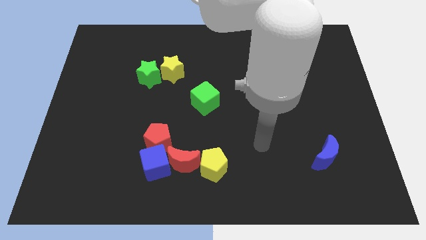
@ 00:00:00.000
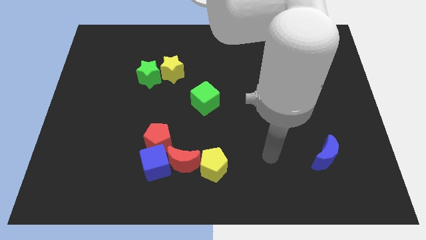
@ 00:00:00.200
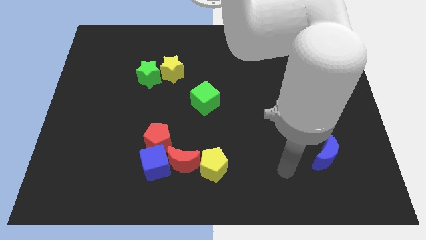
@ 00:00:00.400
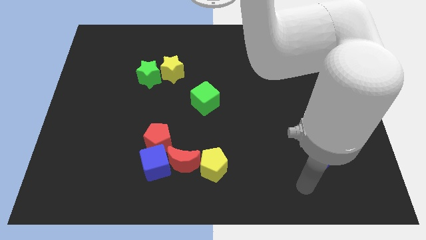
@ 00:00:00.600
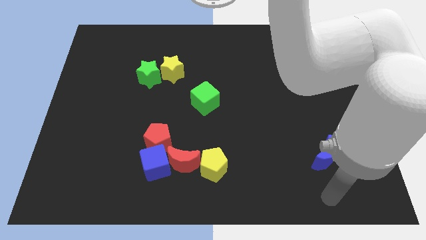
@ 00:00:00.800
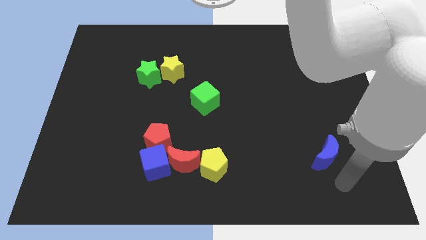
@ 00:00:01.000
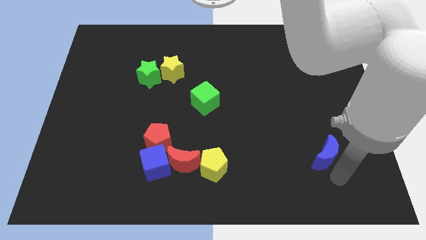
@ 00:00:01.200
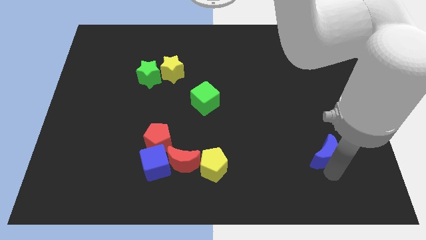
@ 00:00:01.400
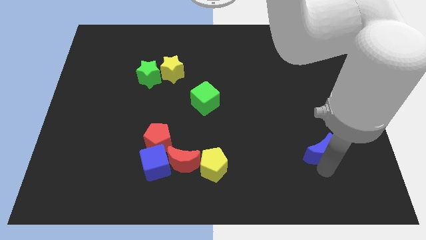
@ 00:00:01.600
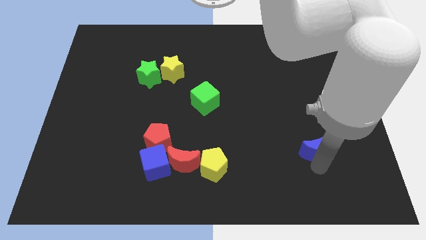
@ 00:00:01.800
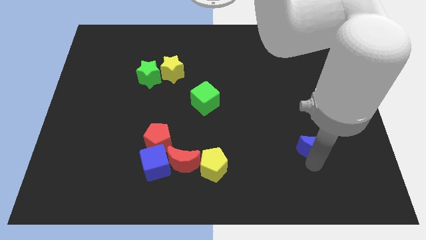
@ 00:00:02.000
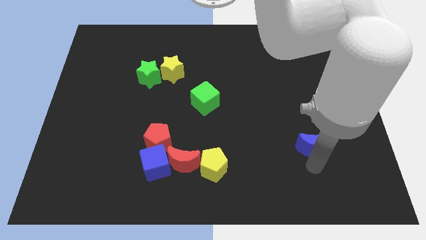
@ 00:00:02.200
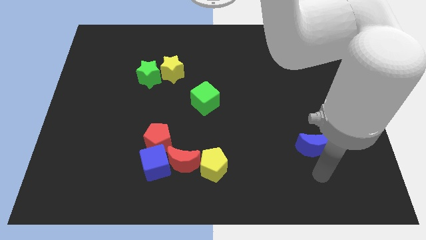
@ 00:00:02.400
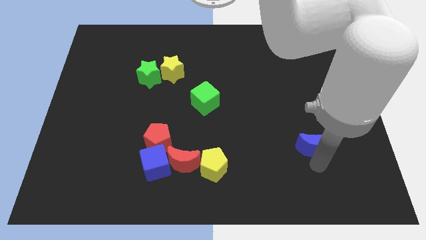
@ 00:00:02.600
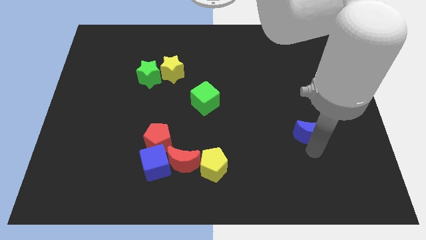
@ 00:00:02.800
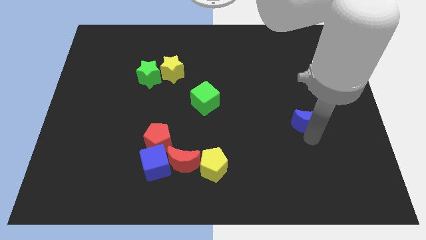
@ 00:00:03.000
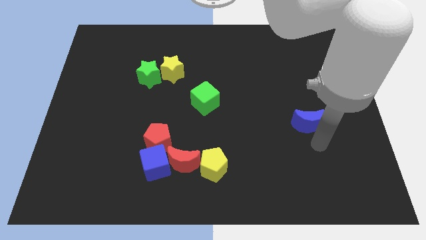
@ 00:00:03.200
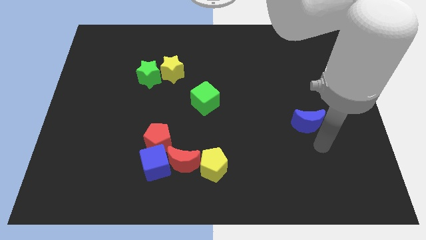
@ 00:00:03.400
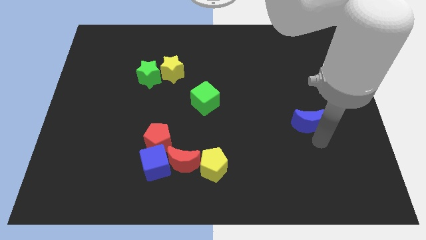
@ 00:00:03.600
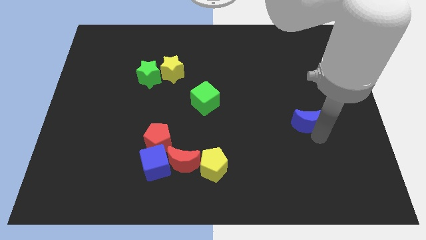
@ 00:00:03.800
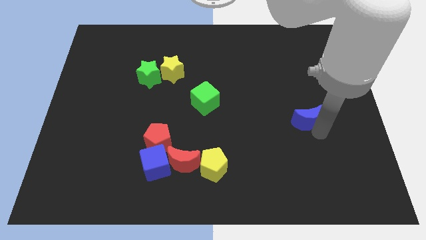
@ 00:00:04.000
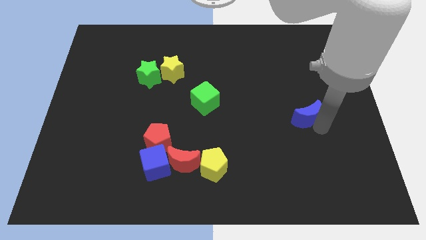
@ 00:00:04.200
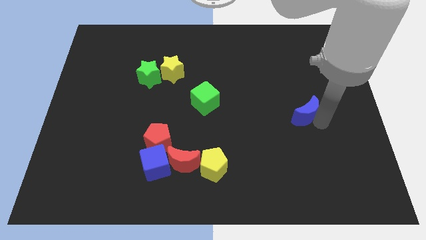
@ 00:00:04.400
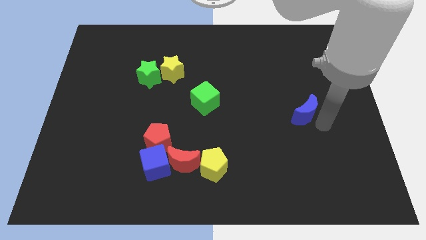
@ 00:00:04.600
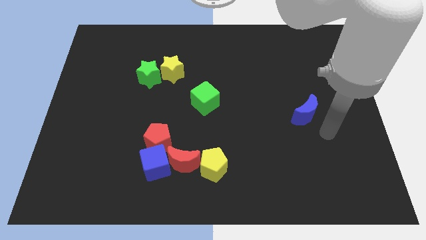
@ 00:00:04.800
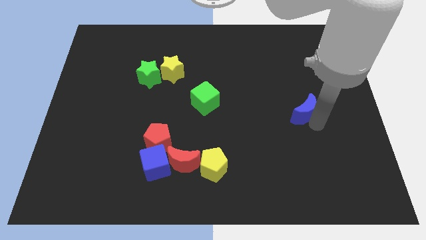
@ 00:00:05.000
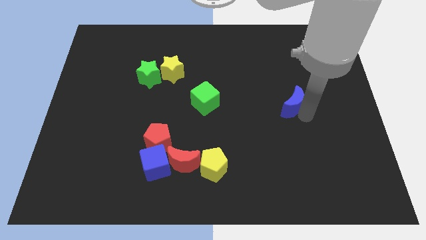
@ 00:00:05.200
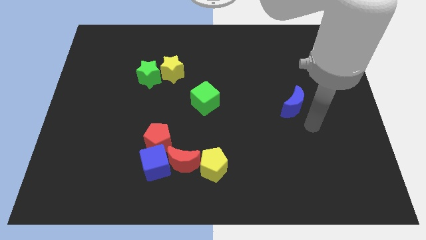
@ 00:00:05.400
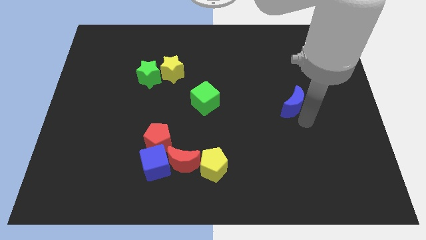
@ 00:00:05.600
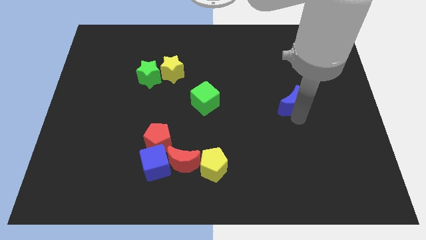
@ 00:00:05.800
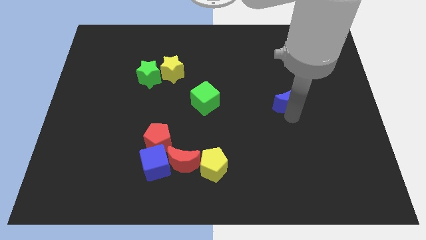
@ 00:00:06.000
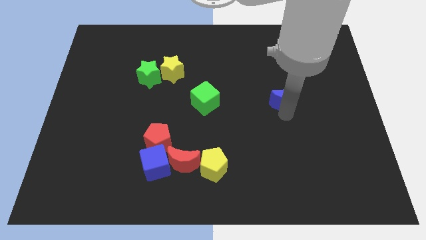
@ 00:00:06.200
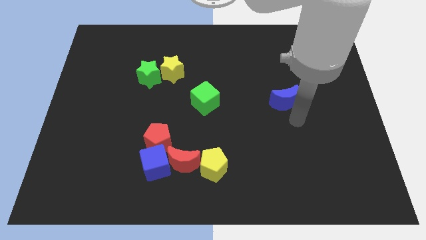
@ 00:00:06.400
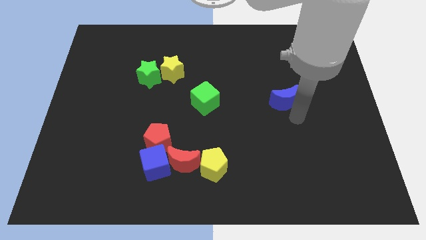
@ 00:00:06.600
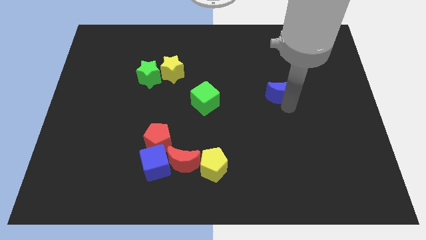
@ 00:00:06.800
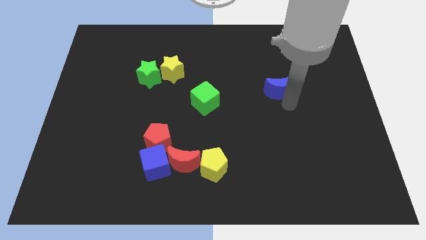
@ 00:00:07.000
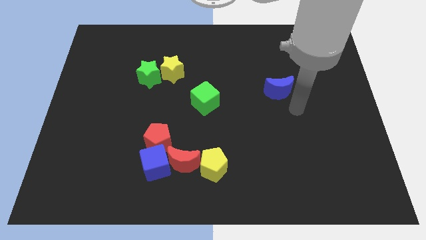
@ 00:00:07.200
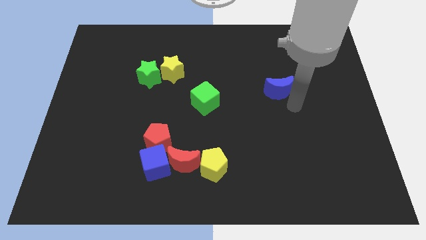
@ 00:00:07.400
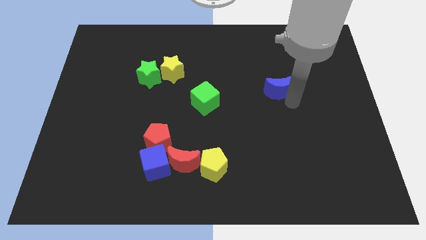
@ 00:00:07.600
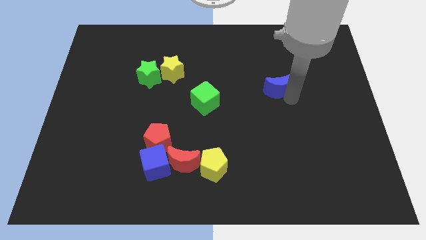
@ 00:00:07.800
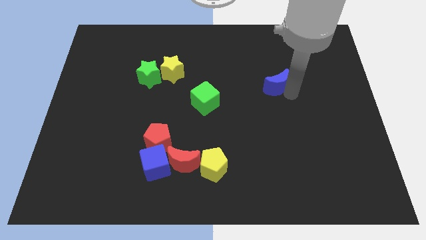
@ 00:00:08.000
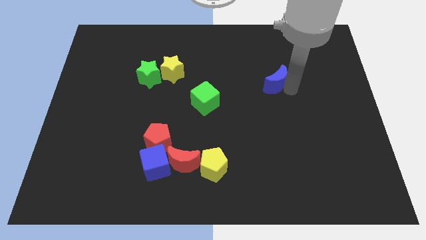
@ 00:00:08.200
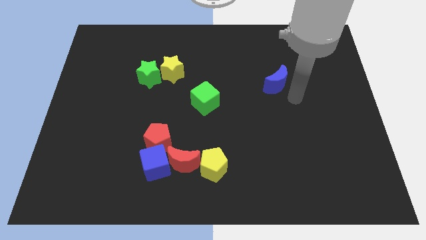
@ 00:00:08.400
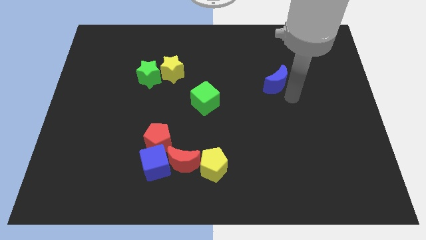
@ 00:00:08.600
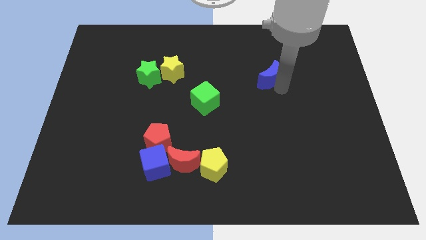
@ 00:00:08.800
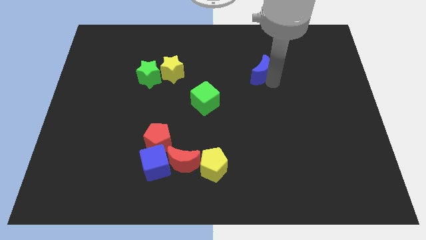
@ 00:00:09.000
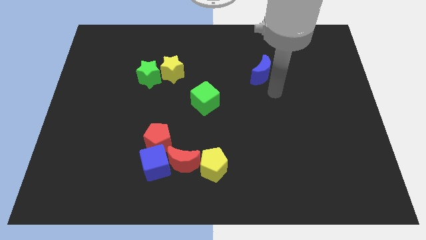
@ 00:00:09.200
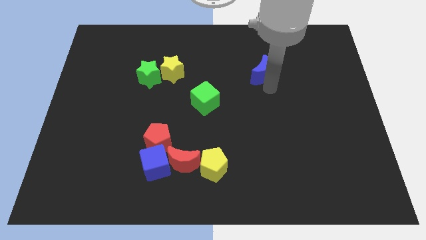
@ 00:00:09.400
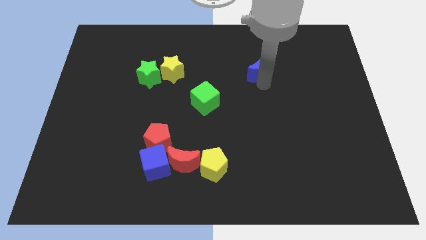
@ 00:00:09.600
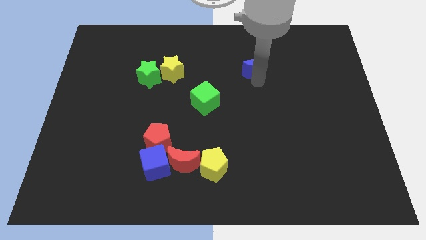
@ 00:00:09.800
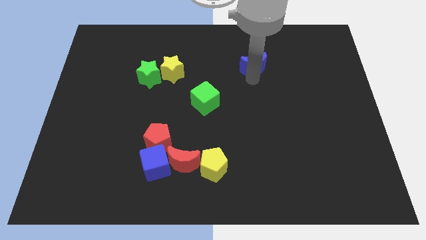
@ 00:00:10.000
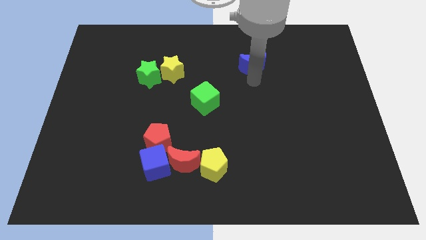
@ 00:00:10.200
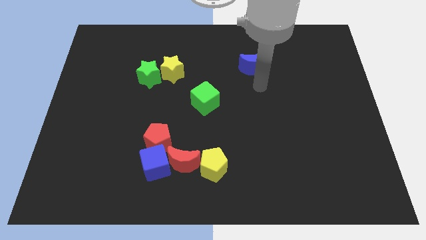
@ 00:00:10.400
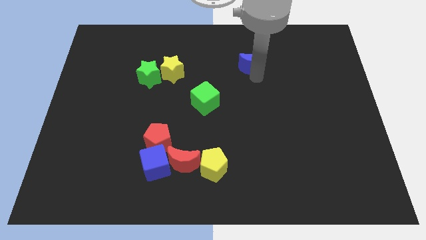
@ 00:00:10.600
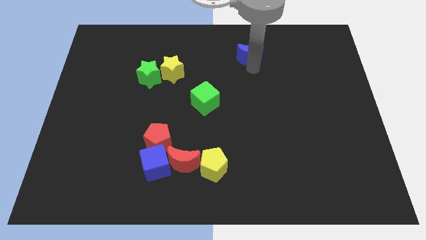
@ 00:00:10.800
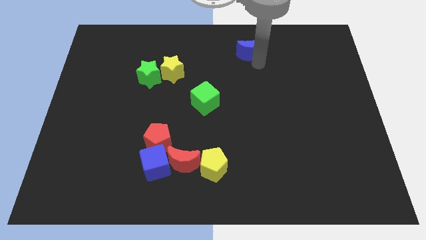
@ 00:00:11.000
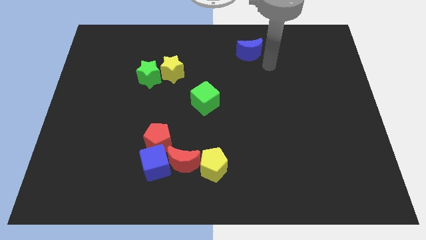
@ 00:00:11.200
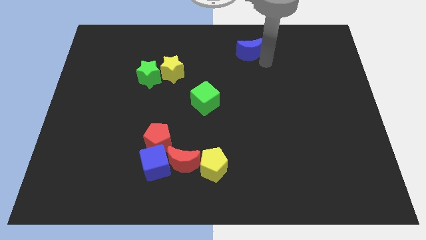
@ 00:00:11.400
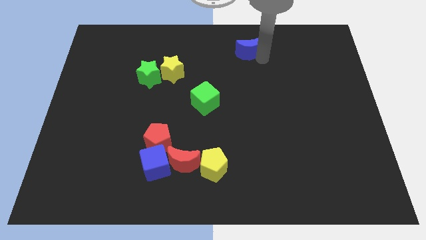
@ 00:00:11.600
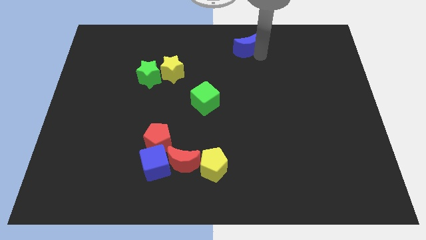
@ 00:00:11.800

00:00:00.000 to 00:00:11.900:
slide the blue moon to the top side
